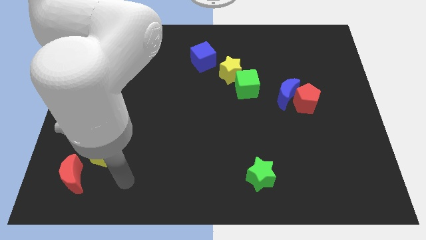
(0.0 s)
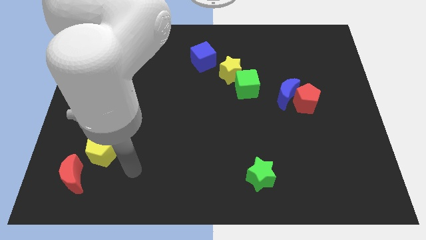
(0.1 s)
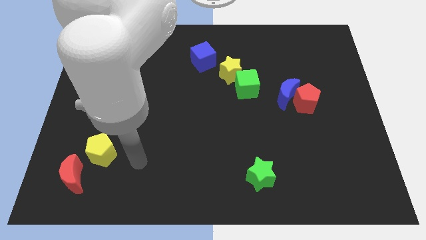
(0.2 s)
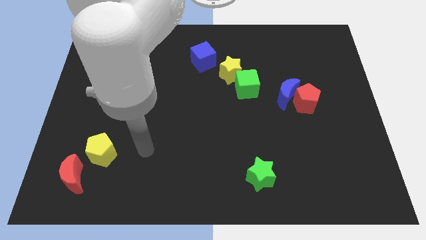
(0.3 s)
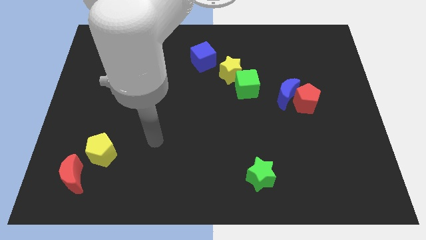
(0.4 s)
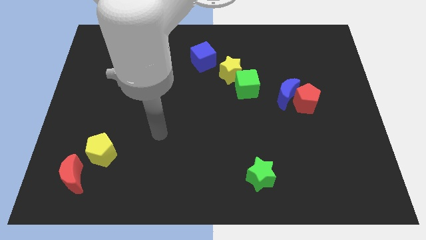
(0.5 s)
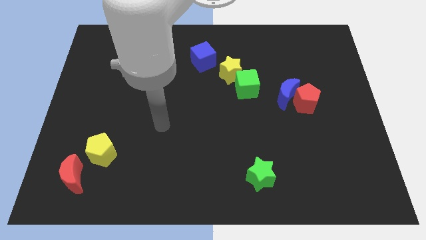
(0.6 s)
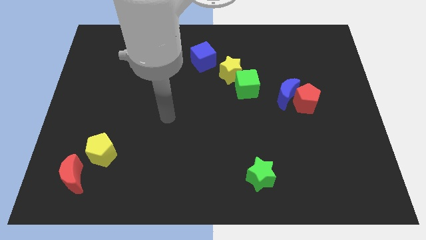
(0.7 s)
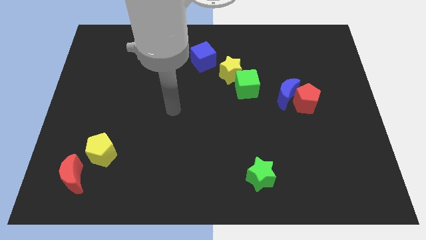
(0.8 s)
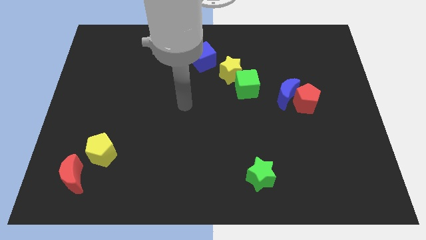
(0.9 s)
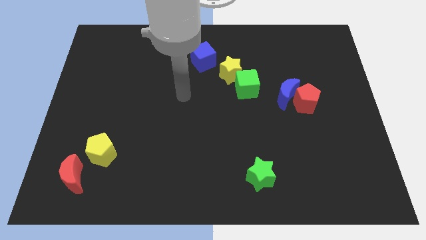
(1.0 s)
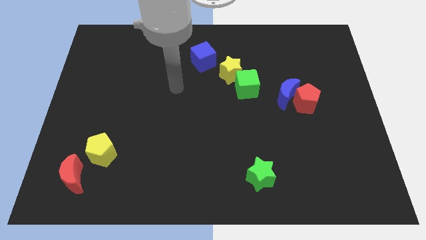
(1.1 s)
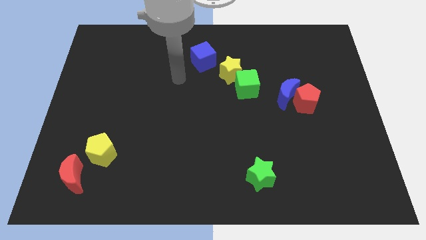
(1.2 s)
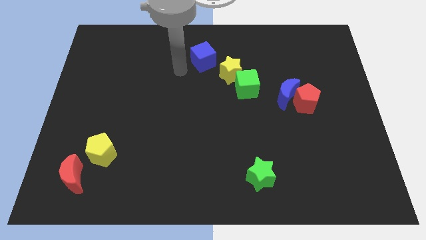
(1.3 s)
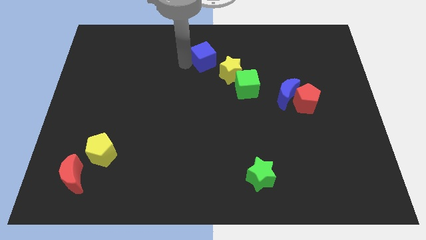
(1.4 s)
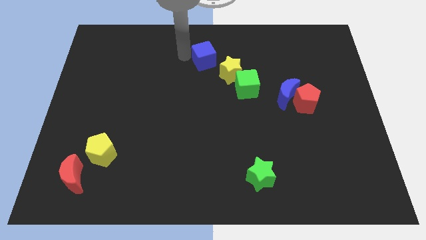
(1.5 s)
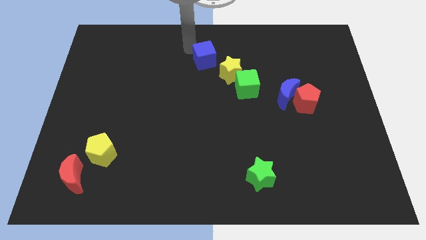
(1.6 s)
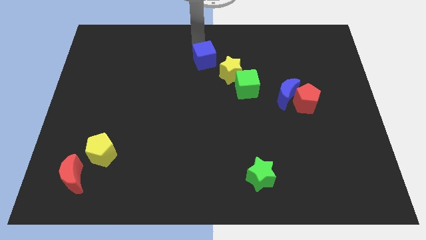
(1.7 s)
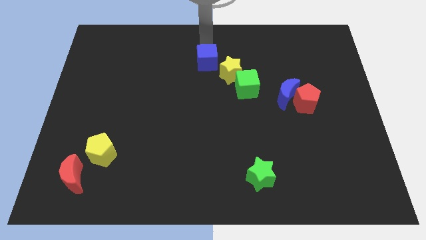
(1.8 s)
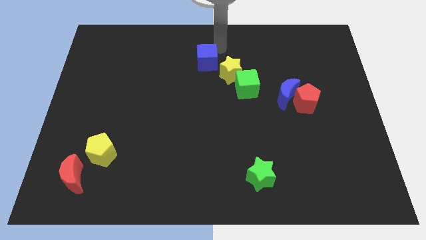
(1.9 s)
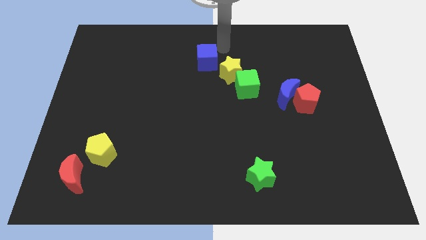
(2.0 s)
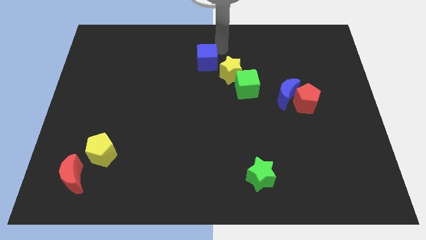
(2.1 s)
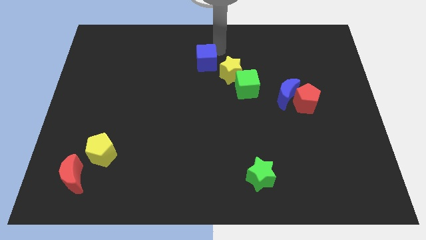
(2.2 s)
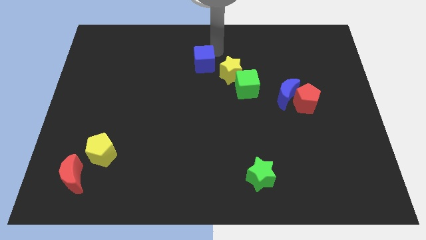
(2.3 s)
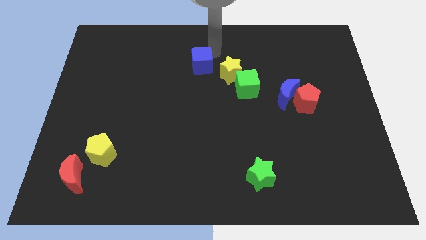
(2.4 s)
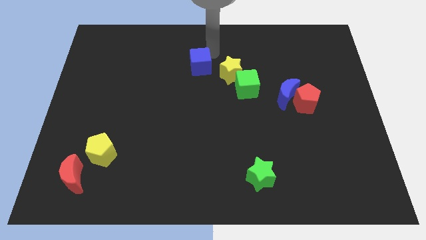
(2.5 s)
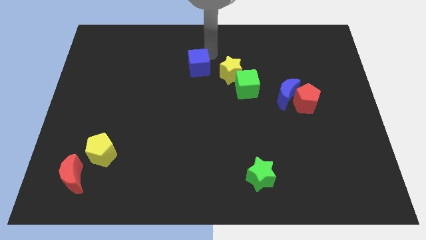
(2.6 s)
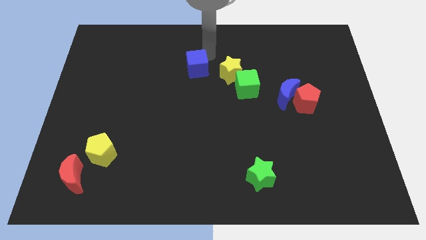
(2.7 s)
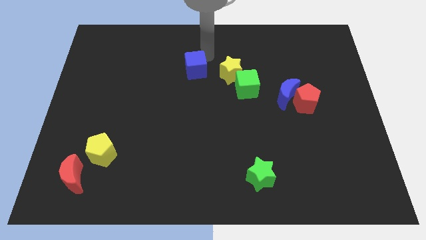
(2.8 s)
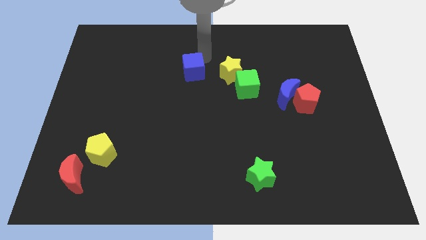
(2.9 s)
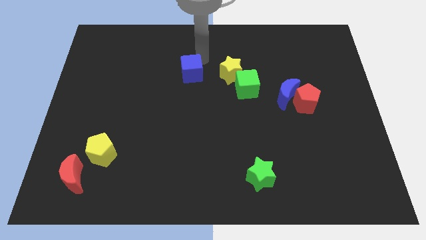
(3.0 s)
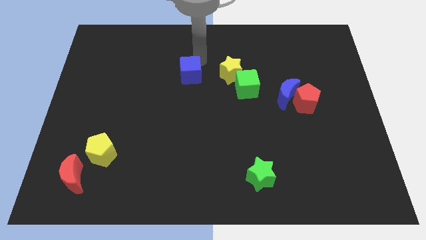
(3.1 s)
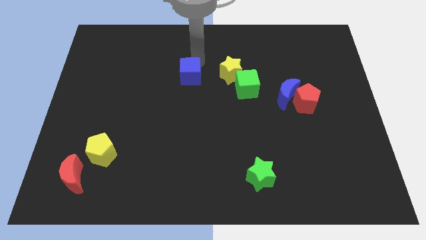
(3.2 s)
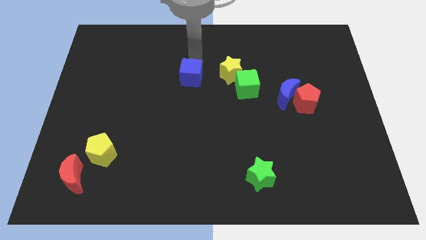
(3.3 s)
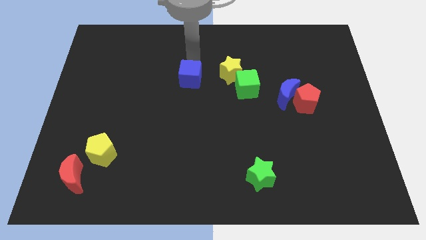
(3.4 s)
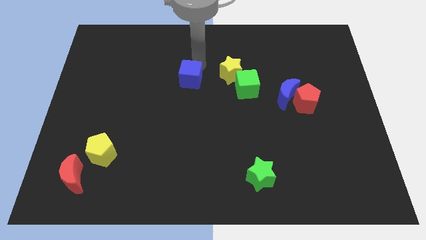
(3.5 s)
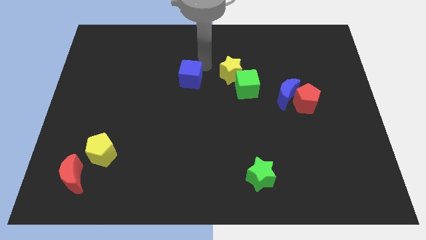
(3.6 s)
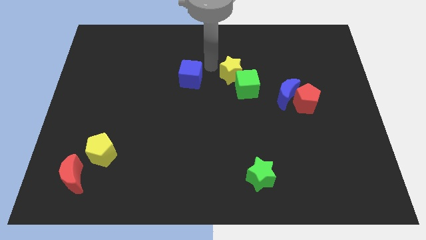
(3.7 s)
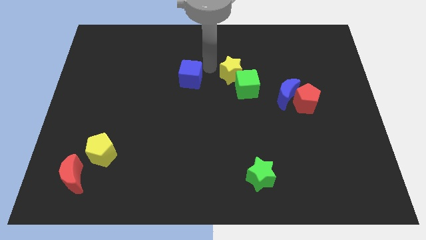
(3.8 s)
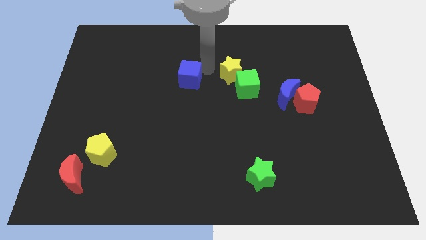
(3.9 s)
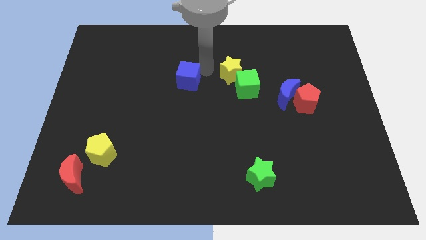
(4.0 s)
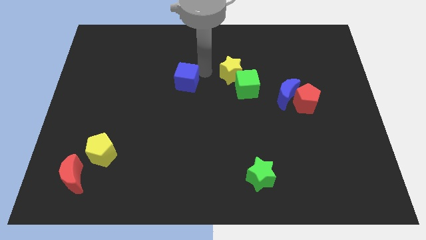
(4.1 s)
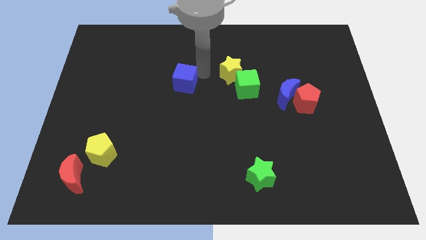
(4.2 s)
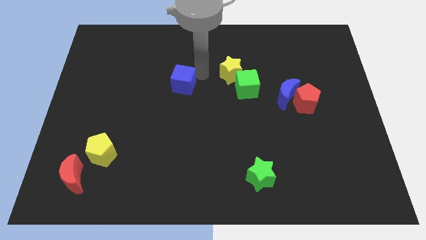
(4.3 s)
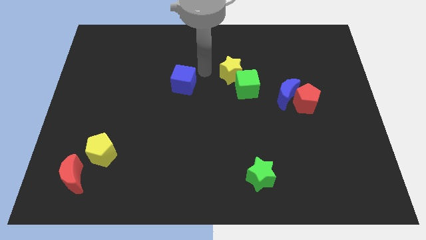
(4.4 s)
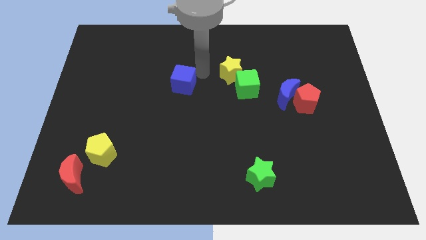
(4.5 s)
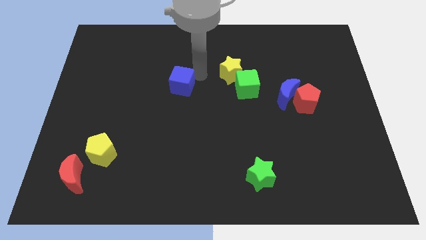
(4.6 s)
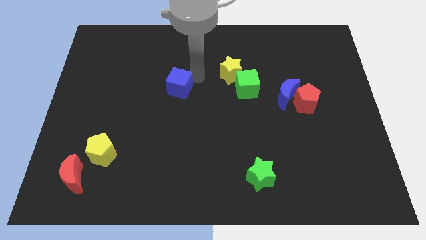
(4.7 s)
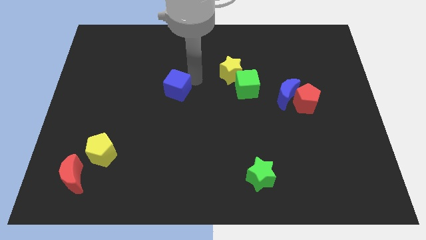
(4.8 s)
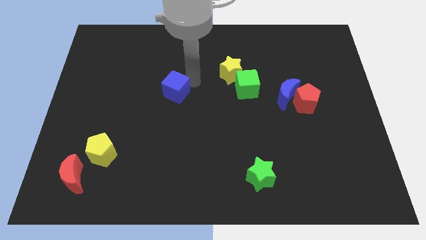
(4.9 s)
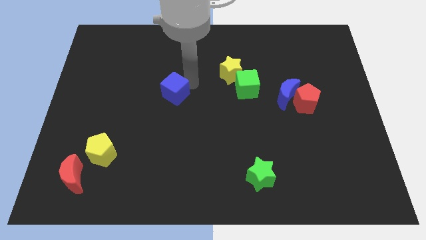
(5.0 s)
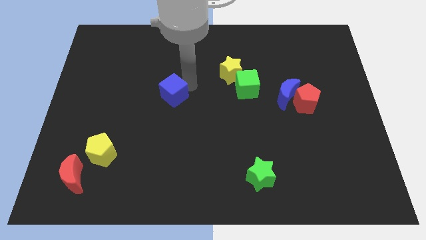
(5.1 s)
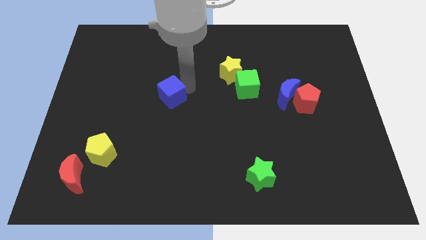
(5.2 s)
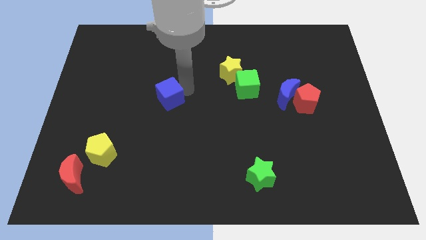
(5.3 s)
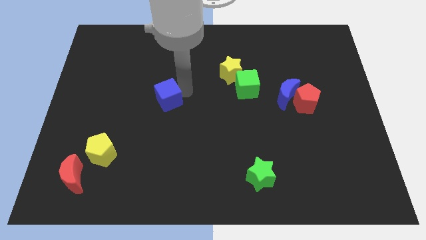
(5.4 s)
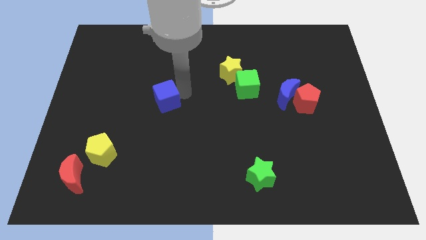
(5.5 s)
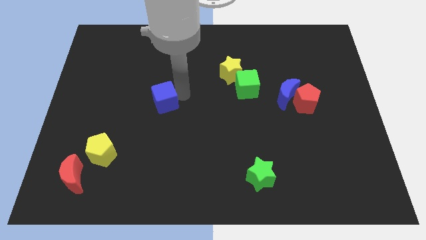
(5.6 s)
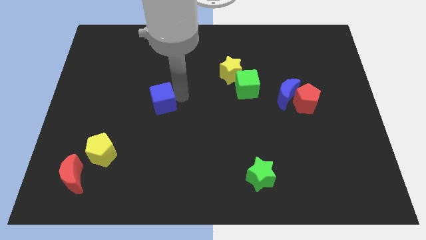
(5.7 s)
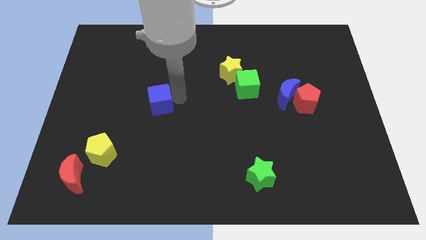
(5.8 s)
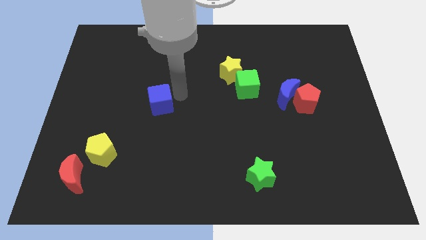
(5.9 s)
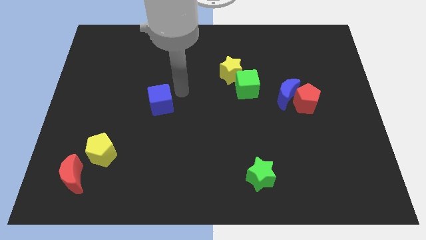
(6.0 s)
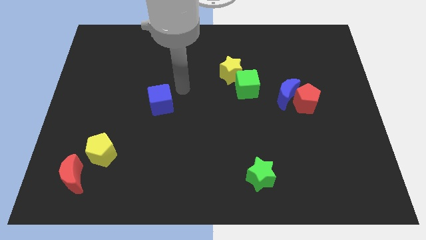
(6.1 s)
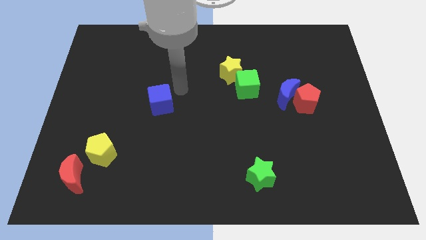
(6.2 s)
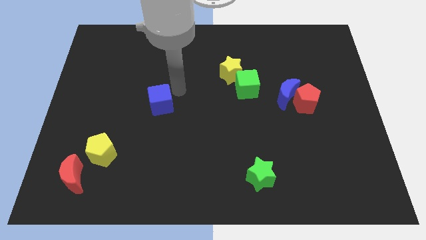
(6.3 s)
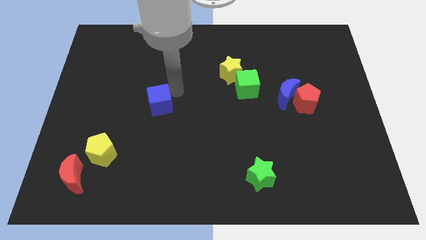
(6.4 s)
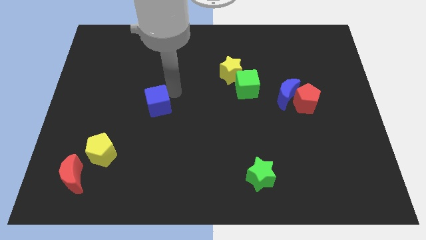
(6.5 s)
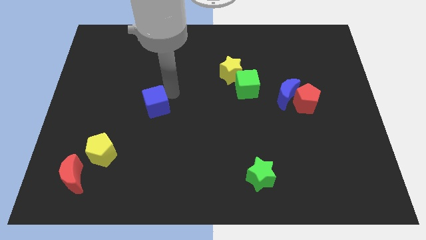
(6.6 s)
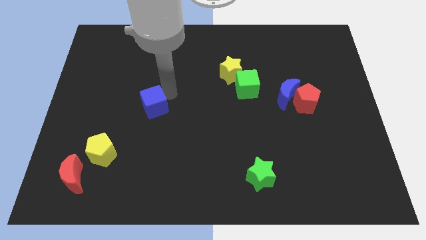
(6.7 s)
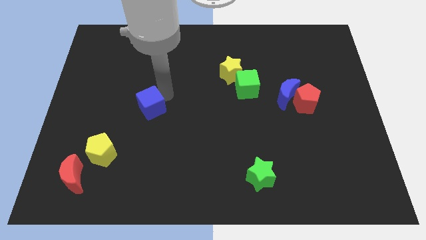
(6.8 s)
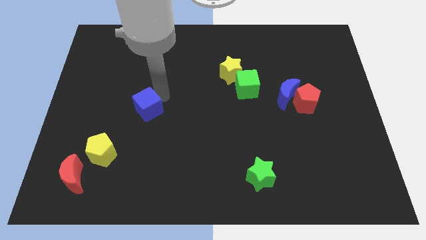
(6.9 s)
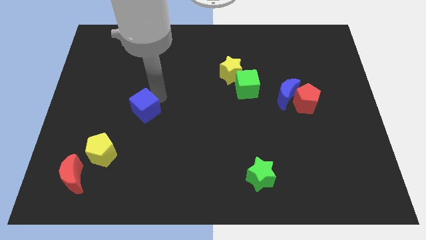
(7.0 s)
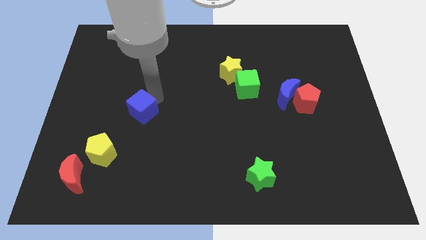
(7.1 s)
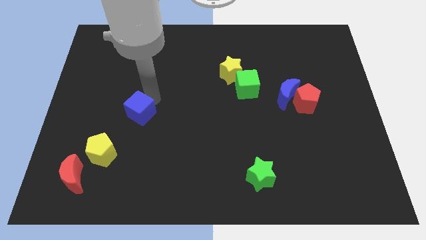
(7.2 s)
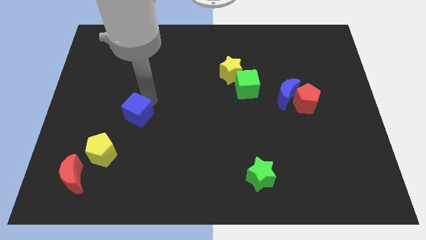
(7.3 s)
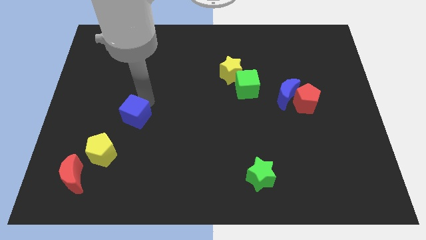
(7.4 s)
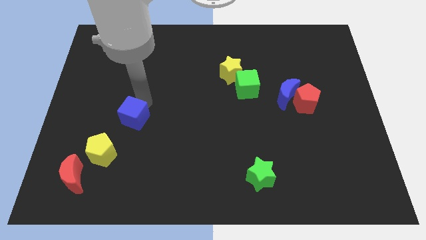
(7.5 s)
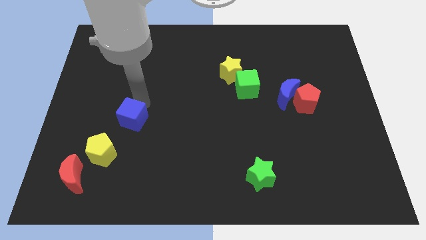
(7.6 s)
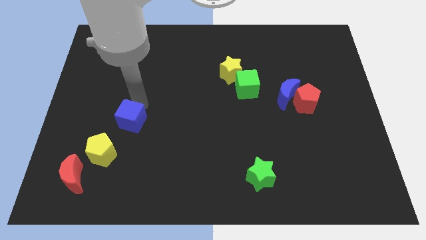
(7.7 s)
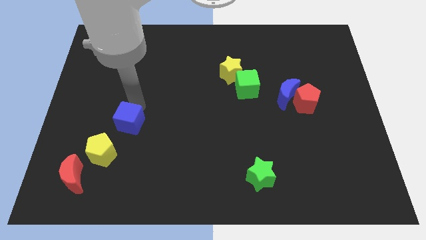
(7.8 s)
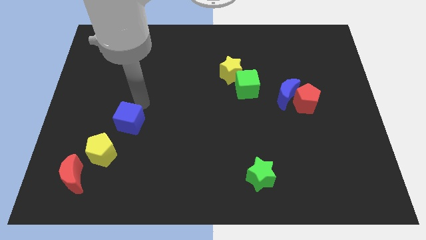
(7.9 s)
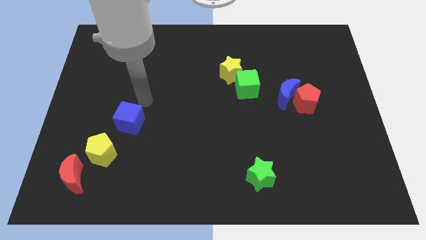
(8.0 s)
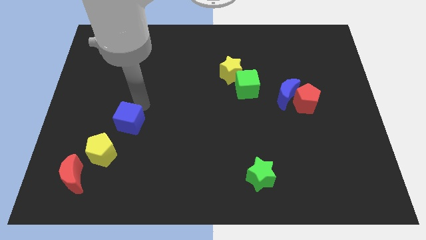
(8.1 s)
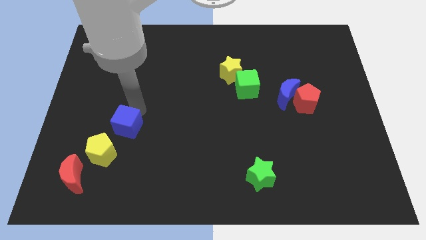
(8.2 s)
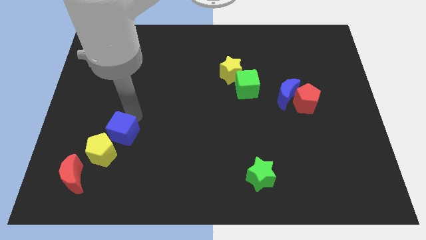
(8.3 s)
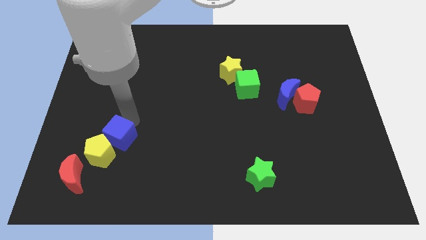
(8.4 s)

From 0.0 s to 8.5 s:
push the blue cube towards the yellow pentagon
